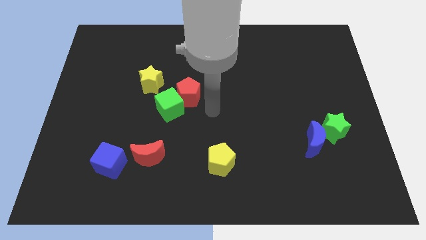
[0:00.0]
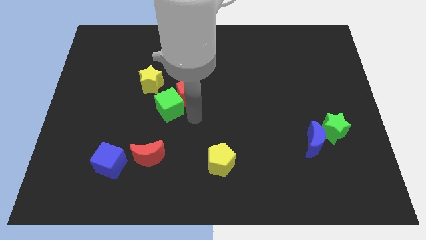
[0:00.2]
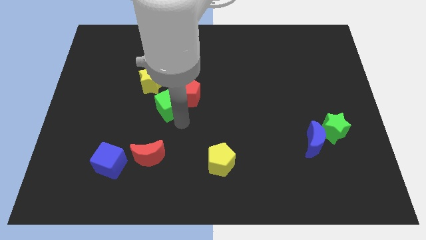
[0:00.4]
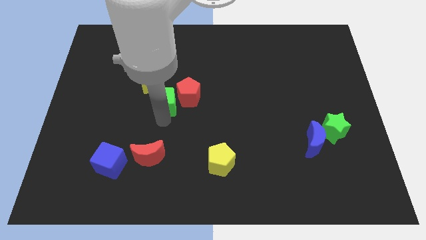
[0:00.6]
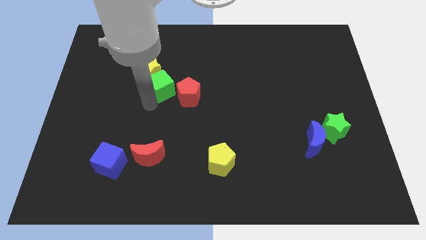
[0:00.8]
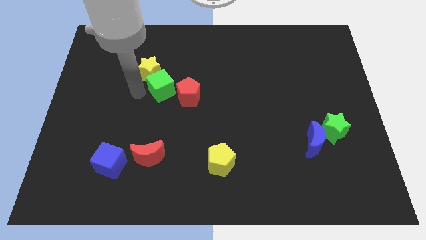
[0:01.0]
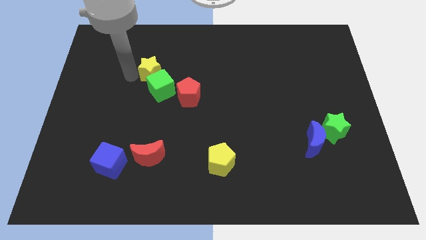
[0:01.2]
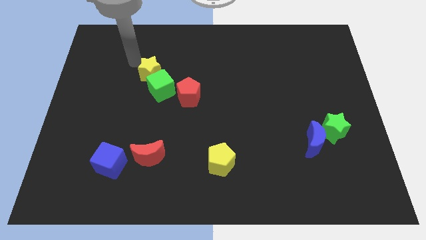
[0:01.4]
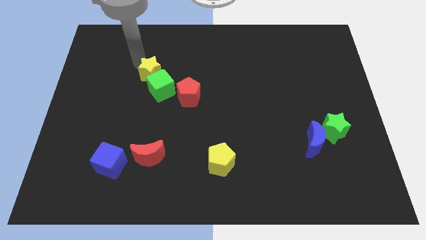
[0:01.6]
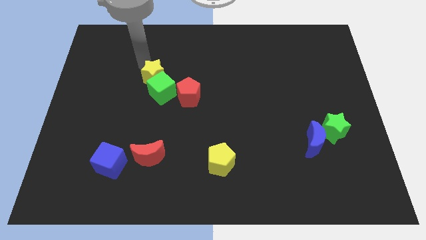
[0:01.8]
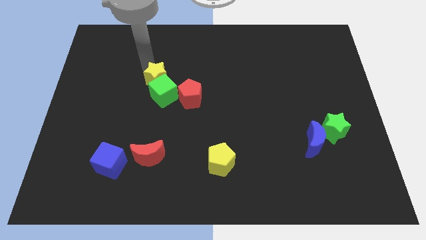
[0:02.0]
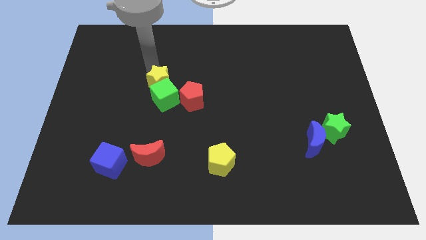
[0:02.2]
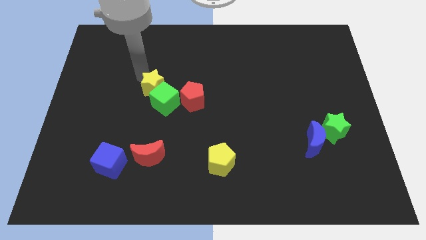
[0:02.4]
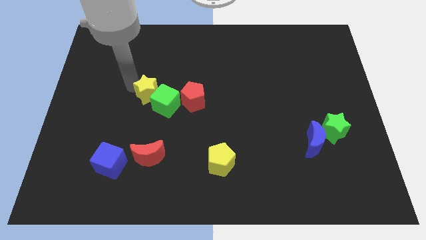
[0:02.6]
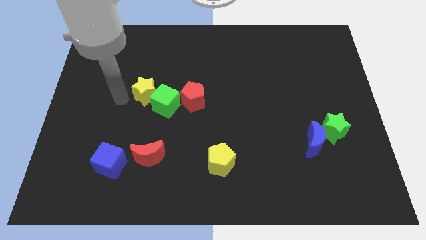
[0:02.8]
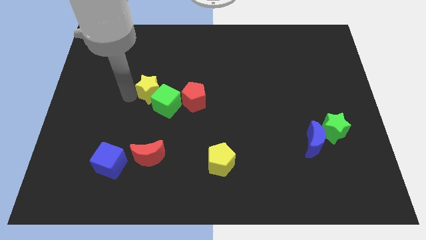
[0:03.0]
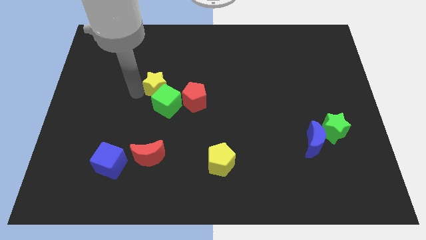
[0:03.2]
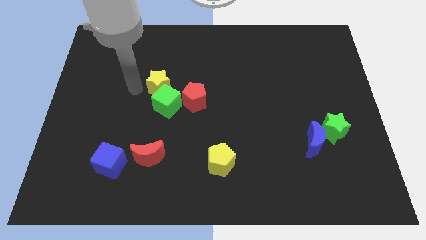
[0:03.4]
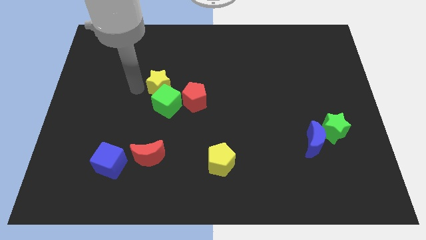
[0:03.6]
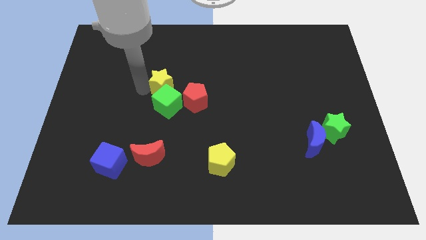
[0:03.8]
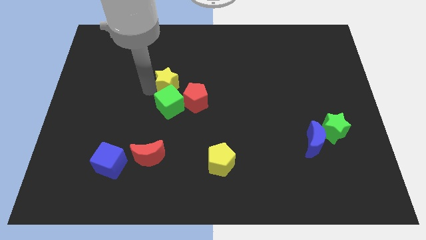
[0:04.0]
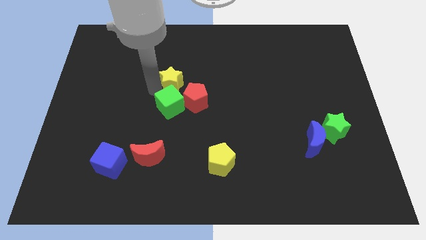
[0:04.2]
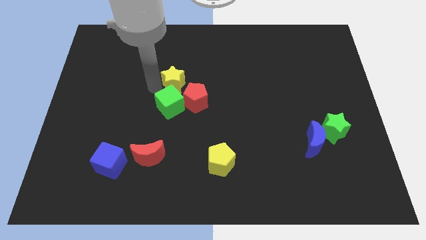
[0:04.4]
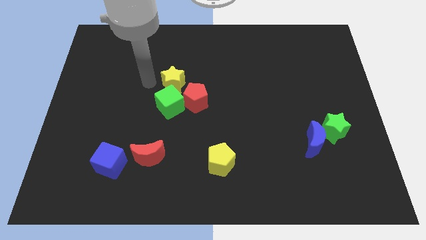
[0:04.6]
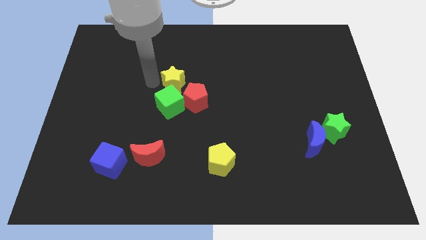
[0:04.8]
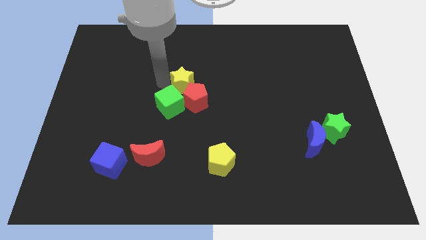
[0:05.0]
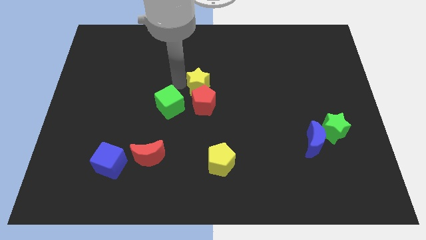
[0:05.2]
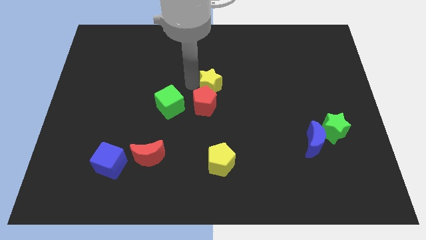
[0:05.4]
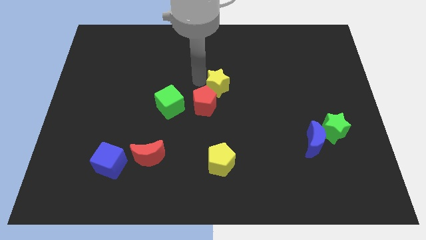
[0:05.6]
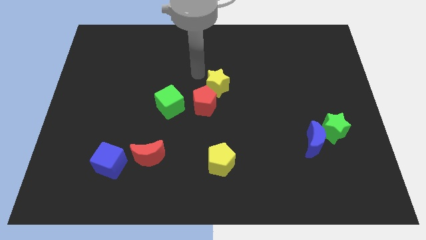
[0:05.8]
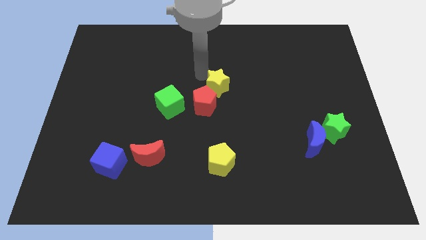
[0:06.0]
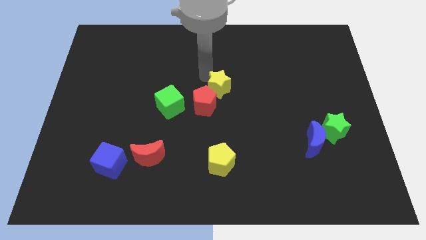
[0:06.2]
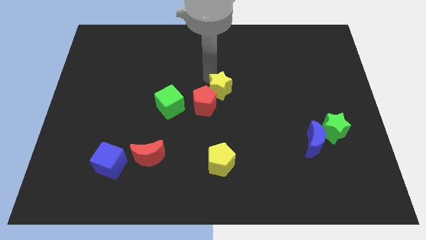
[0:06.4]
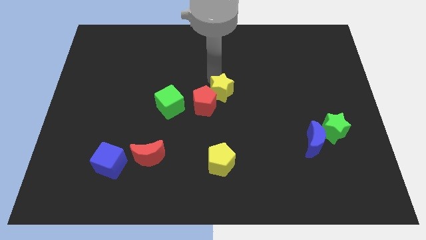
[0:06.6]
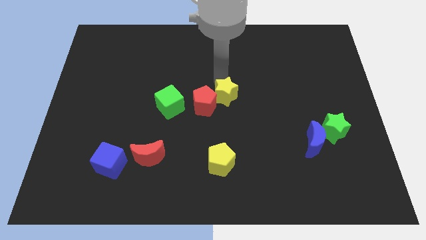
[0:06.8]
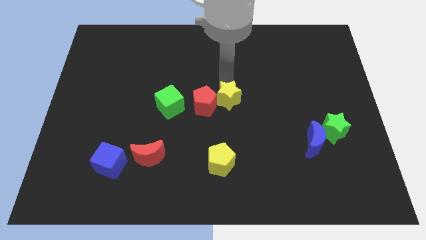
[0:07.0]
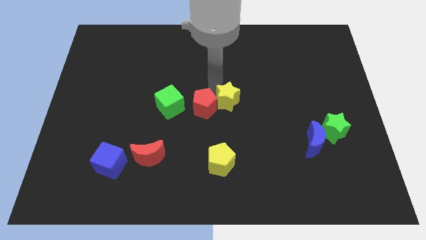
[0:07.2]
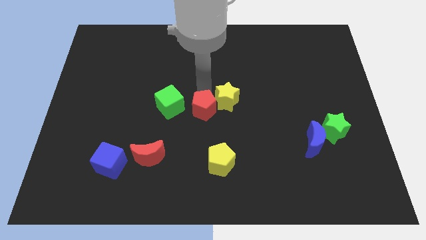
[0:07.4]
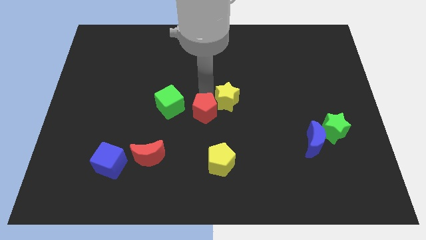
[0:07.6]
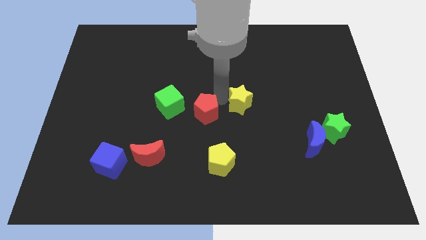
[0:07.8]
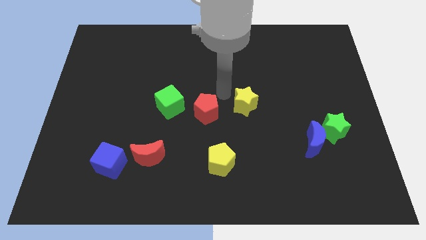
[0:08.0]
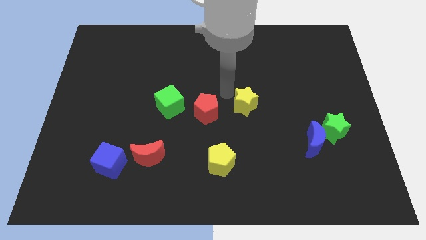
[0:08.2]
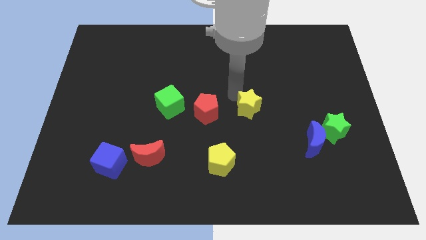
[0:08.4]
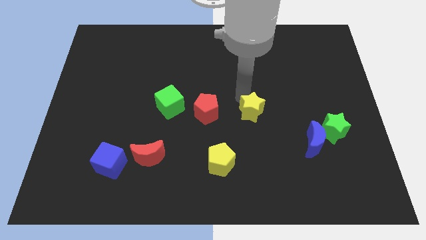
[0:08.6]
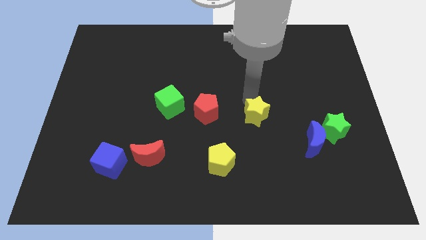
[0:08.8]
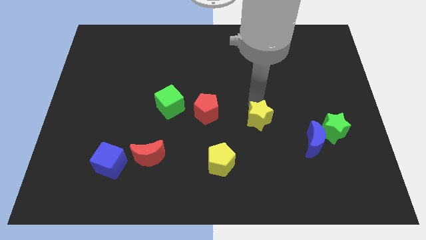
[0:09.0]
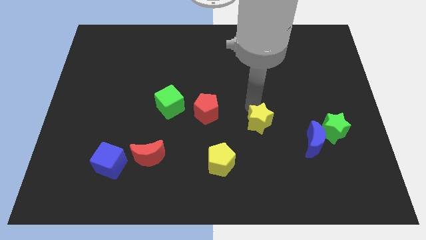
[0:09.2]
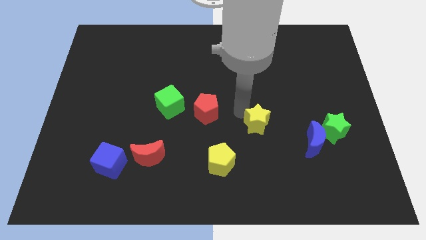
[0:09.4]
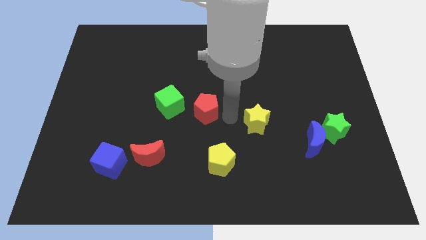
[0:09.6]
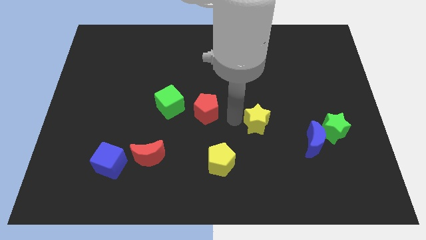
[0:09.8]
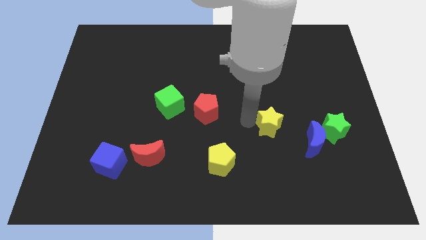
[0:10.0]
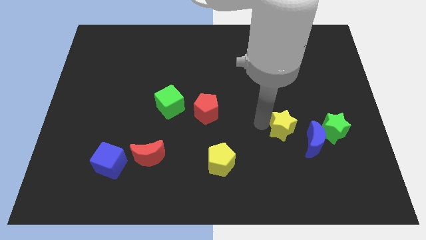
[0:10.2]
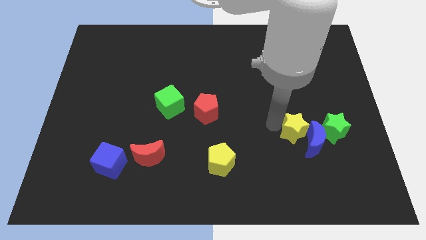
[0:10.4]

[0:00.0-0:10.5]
slide the yellow star close to the blue moon
